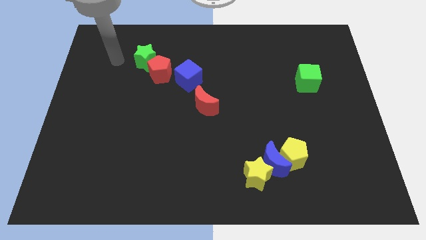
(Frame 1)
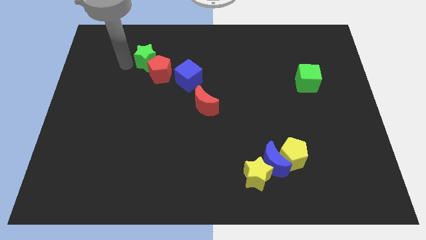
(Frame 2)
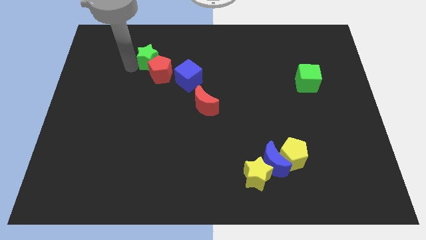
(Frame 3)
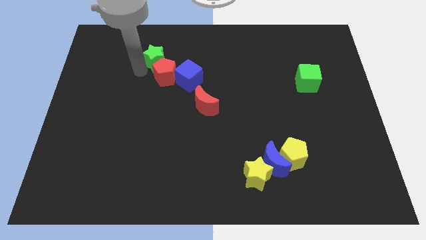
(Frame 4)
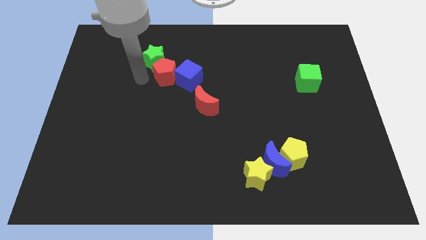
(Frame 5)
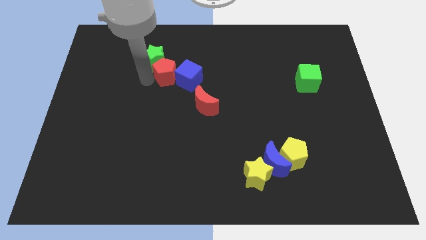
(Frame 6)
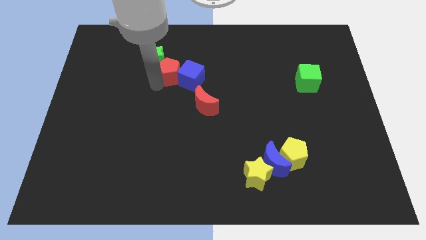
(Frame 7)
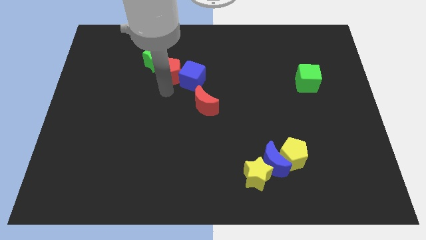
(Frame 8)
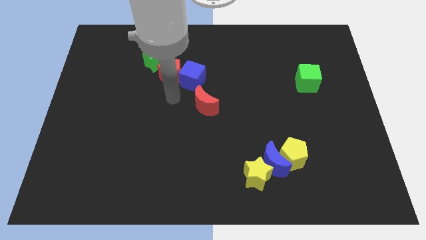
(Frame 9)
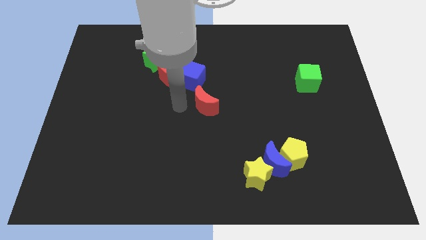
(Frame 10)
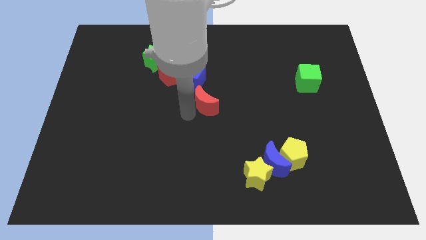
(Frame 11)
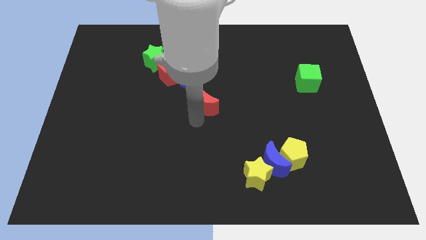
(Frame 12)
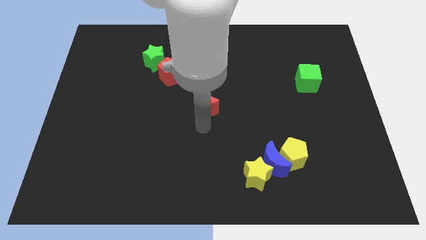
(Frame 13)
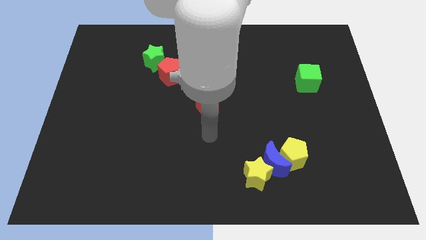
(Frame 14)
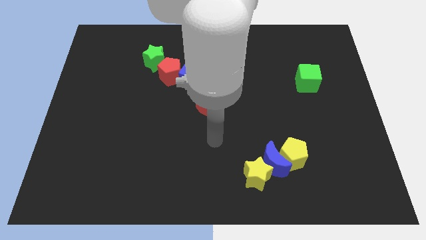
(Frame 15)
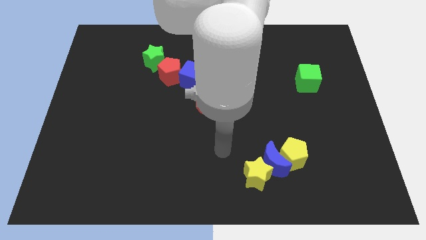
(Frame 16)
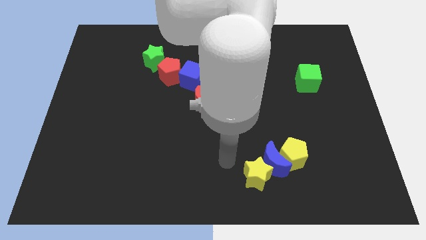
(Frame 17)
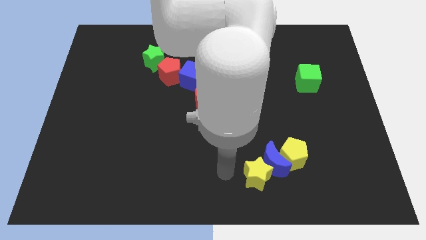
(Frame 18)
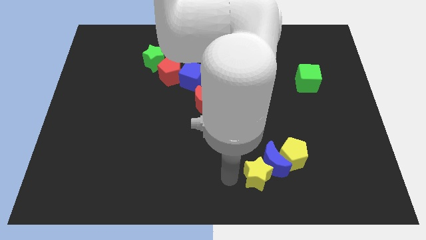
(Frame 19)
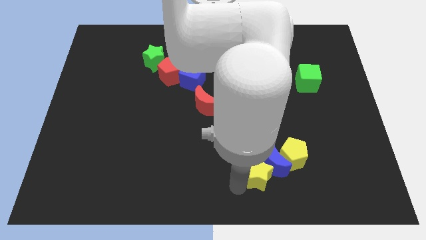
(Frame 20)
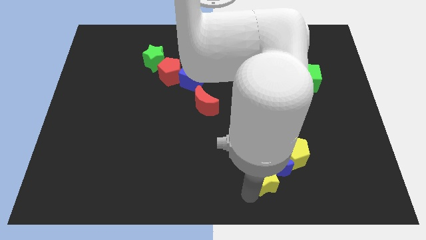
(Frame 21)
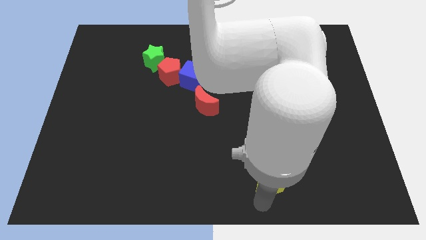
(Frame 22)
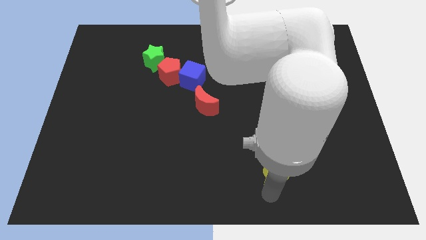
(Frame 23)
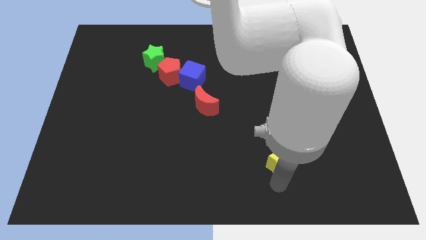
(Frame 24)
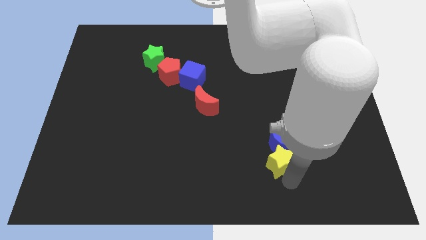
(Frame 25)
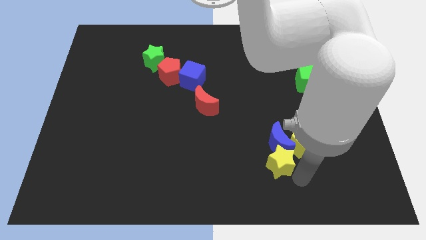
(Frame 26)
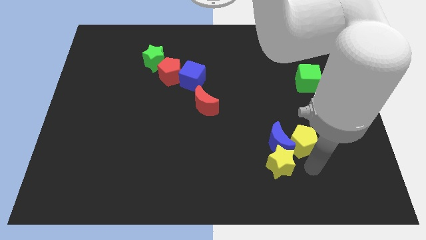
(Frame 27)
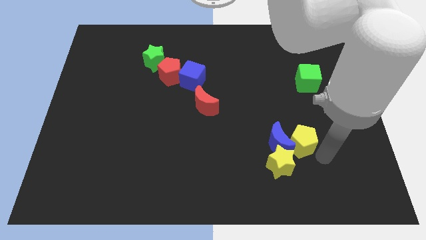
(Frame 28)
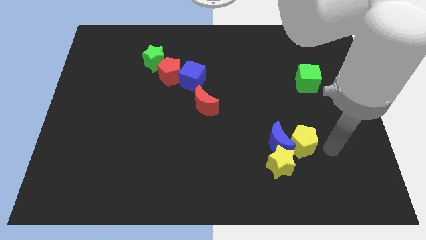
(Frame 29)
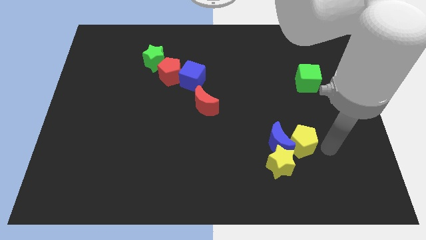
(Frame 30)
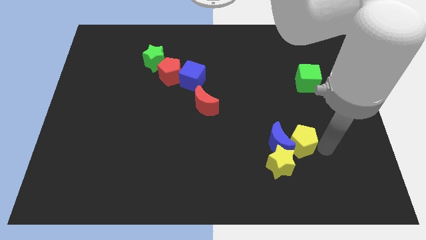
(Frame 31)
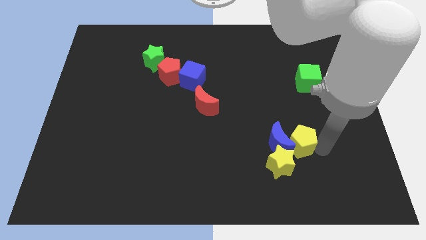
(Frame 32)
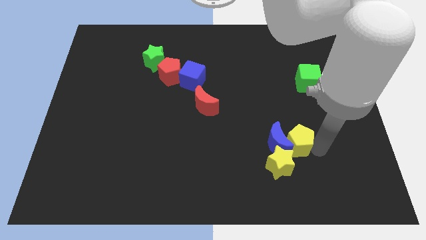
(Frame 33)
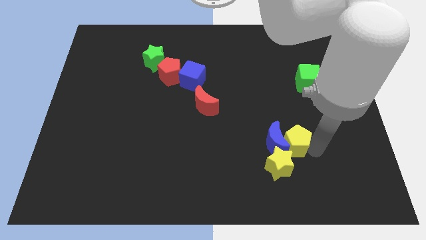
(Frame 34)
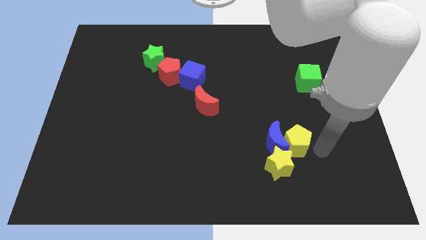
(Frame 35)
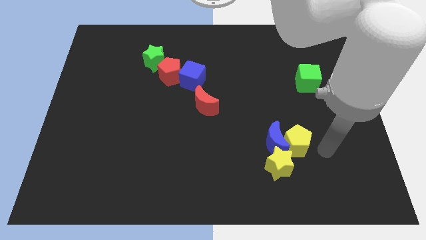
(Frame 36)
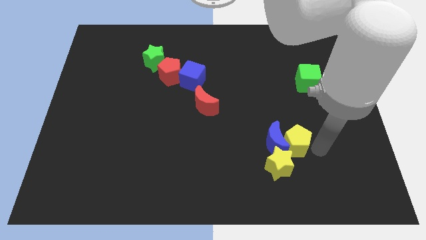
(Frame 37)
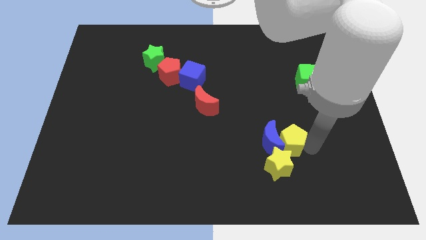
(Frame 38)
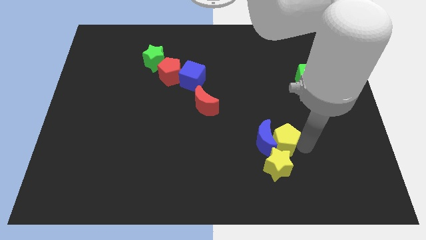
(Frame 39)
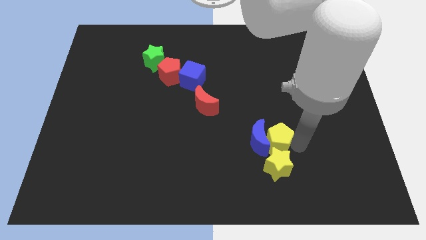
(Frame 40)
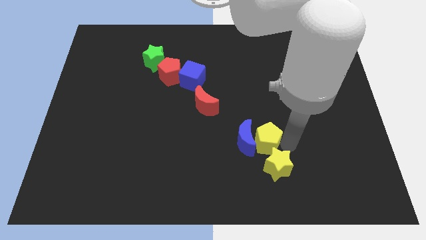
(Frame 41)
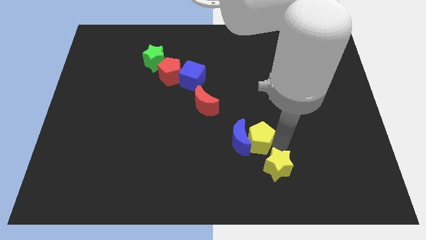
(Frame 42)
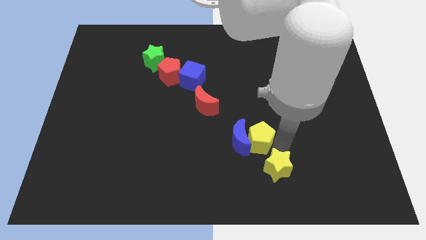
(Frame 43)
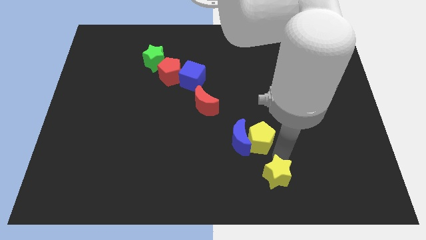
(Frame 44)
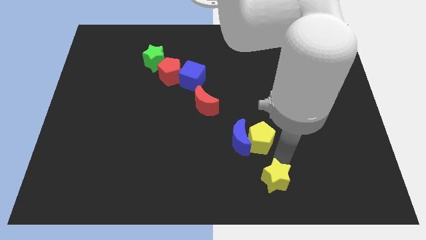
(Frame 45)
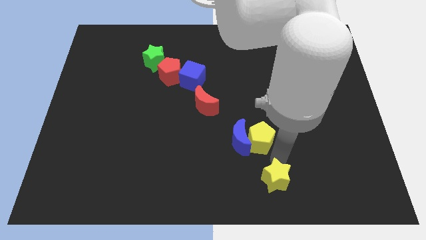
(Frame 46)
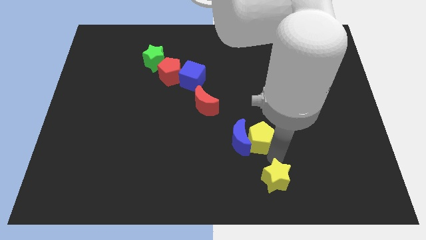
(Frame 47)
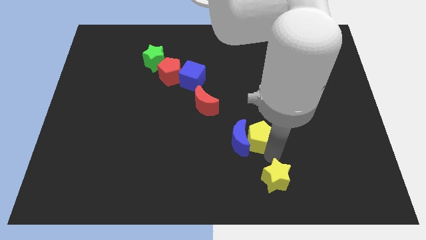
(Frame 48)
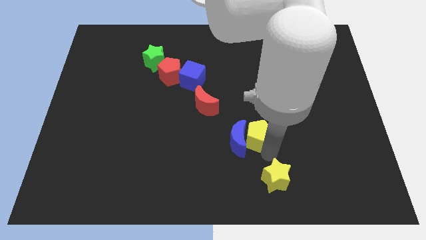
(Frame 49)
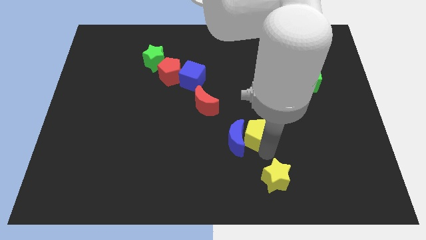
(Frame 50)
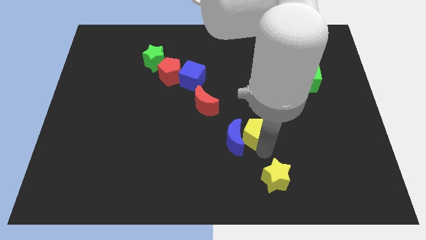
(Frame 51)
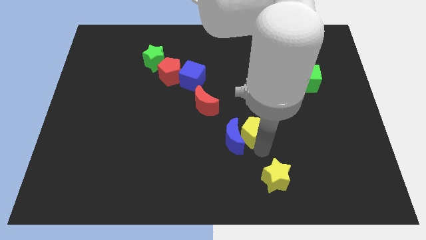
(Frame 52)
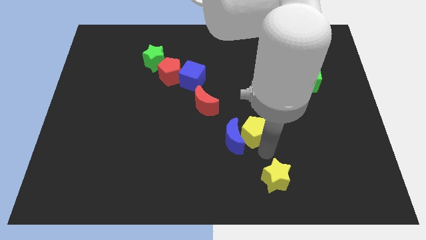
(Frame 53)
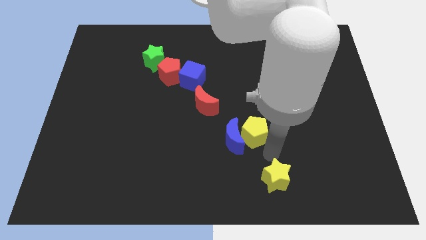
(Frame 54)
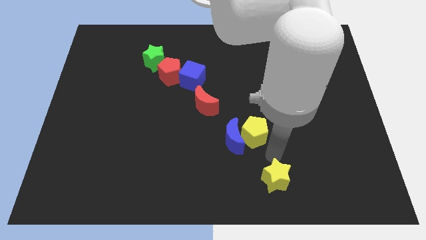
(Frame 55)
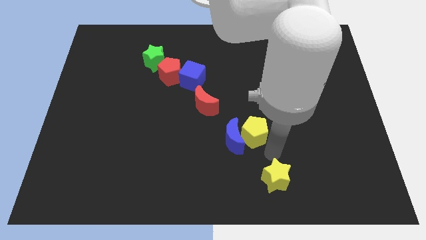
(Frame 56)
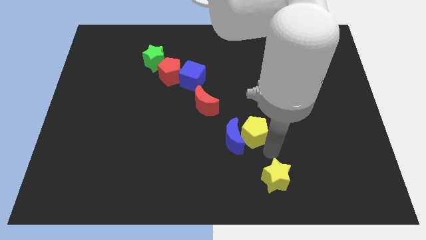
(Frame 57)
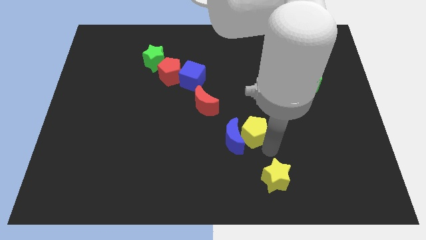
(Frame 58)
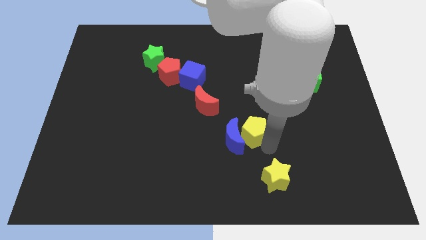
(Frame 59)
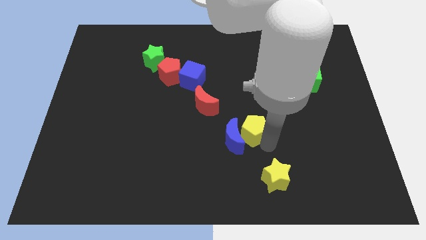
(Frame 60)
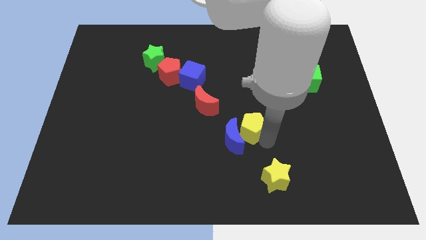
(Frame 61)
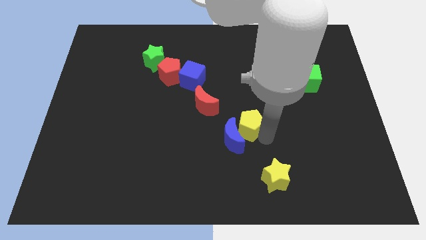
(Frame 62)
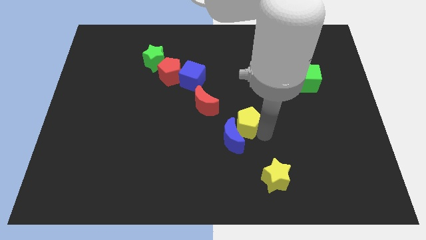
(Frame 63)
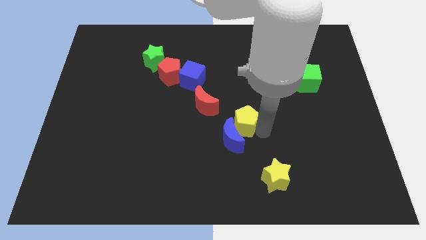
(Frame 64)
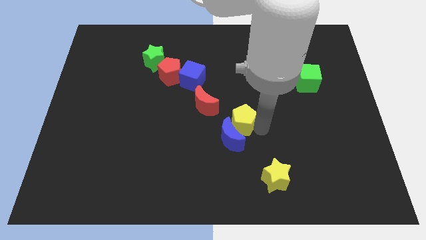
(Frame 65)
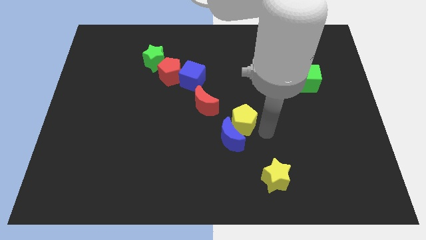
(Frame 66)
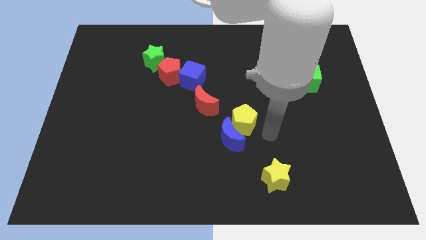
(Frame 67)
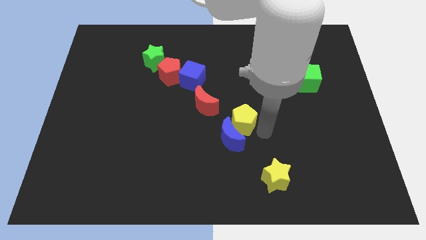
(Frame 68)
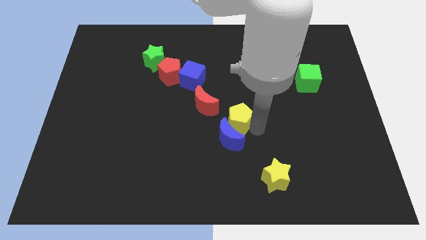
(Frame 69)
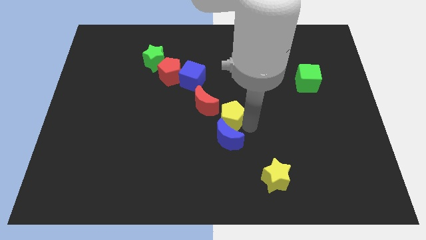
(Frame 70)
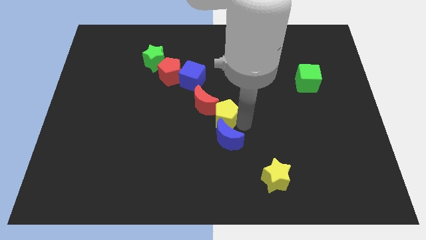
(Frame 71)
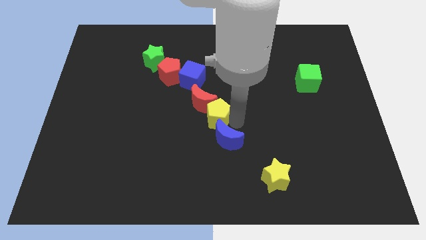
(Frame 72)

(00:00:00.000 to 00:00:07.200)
slide the yellow pentagon close to the red moon
